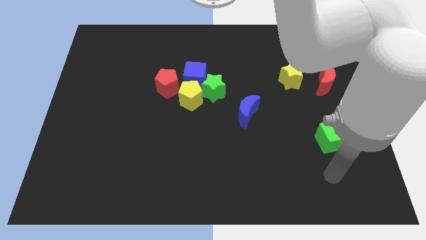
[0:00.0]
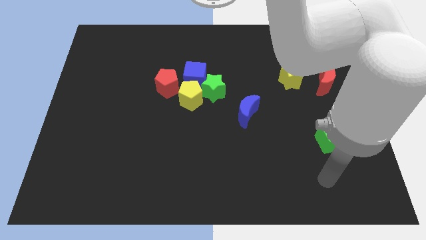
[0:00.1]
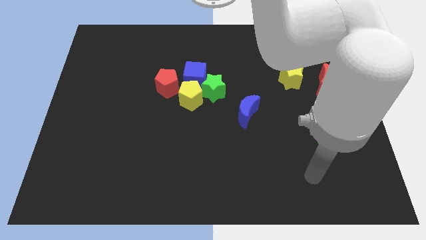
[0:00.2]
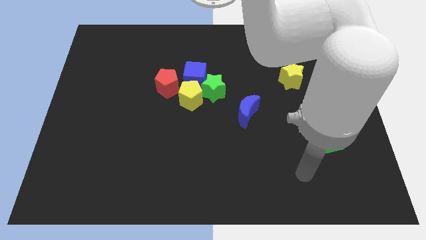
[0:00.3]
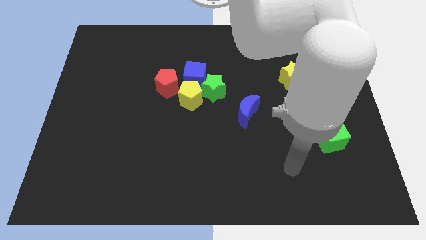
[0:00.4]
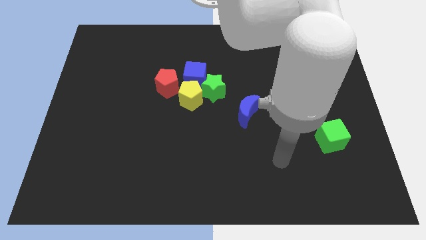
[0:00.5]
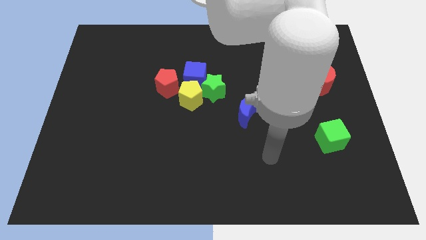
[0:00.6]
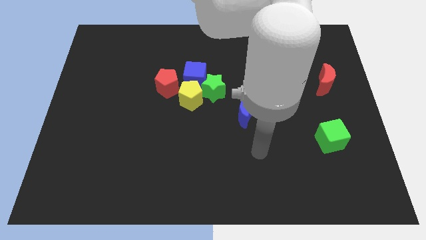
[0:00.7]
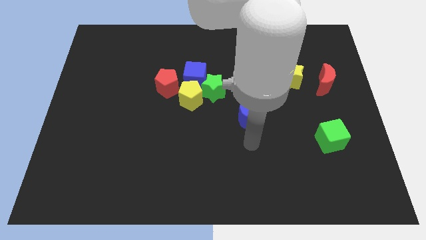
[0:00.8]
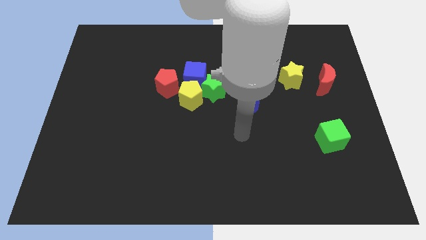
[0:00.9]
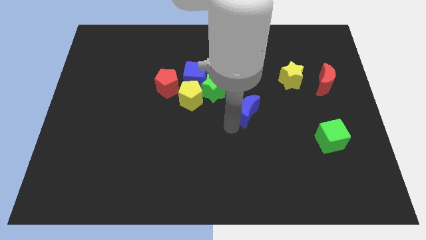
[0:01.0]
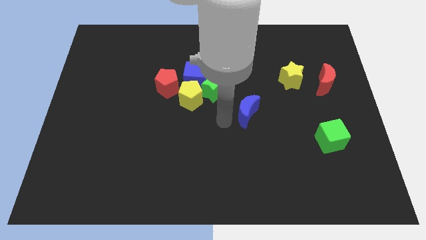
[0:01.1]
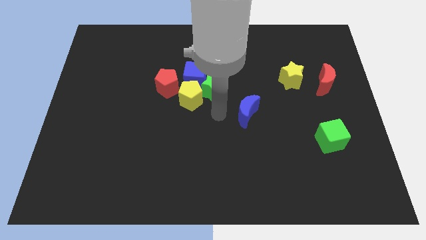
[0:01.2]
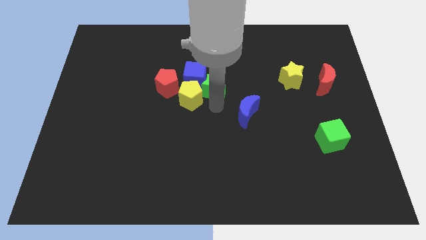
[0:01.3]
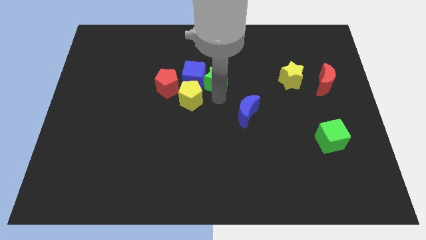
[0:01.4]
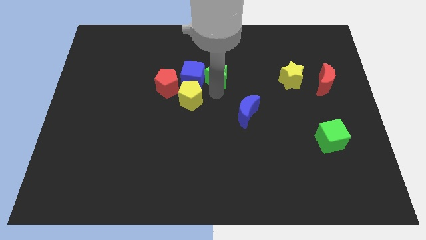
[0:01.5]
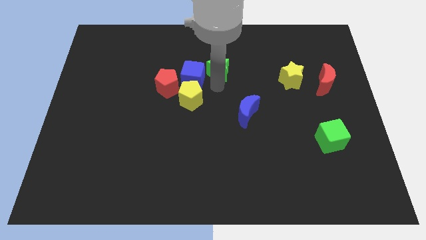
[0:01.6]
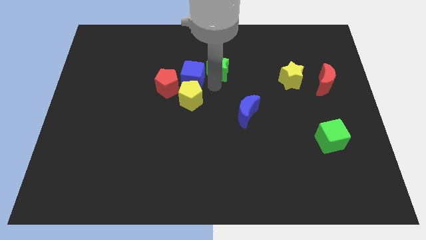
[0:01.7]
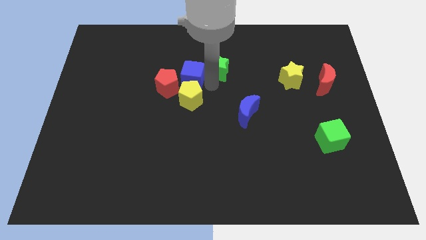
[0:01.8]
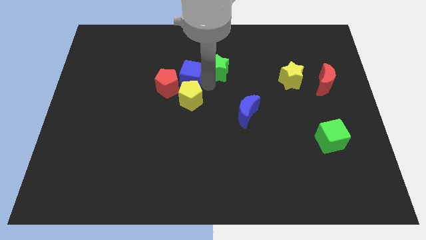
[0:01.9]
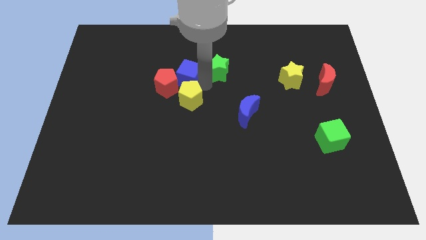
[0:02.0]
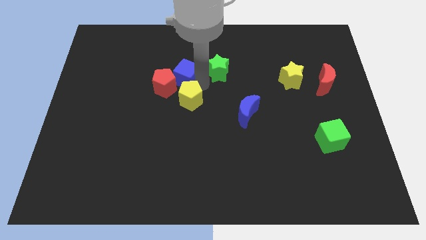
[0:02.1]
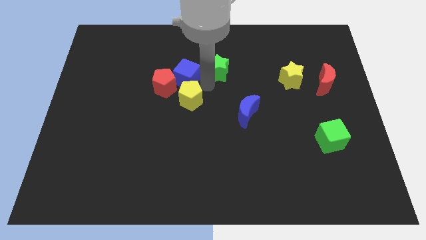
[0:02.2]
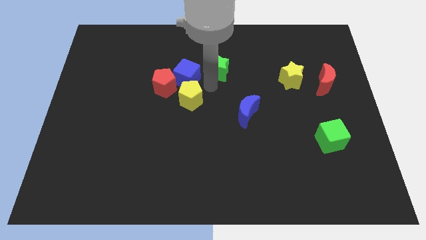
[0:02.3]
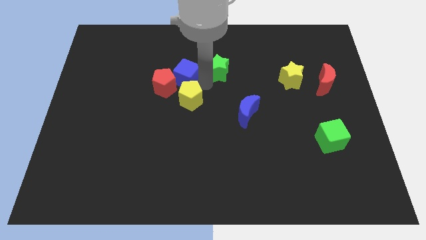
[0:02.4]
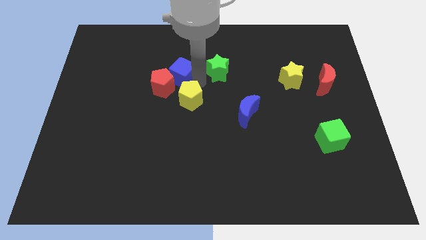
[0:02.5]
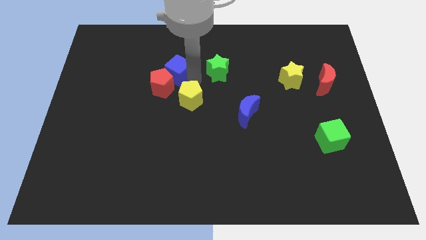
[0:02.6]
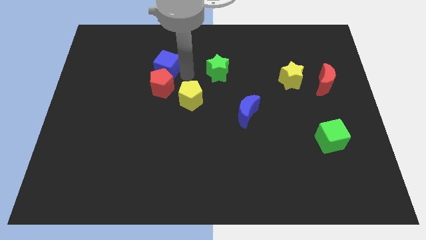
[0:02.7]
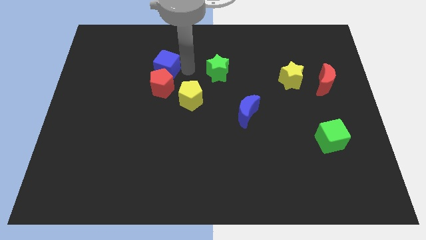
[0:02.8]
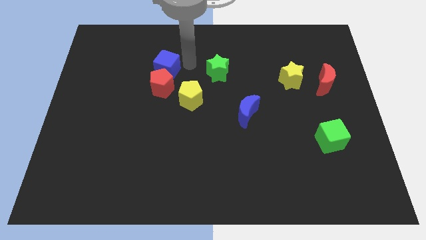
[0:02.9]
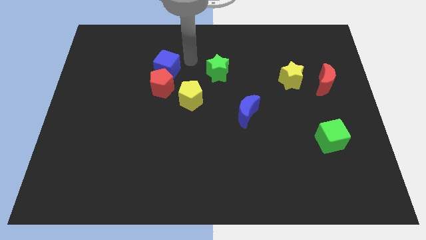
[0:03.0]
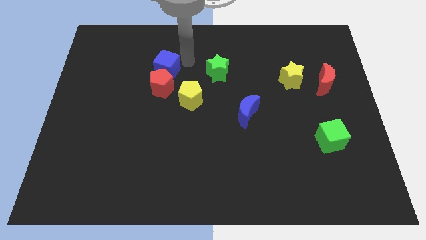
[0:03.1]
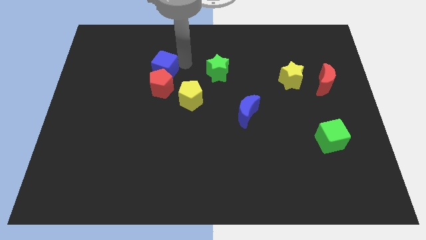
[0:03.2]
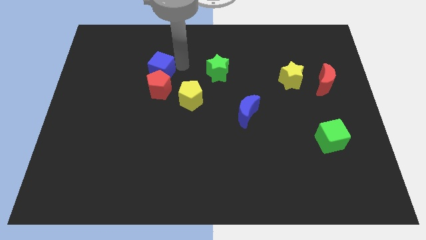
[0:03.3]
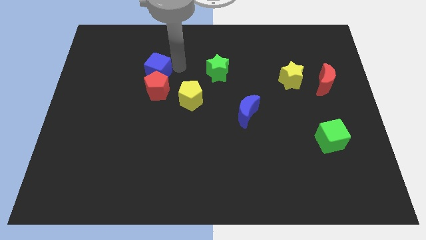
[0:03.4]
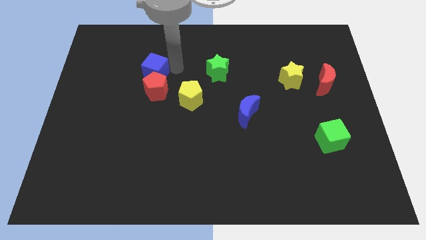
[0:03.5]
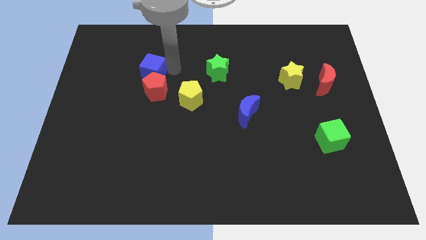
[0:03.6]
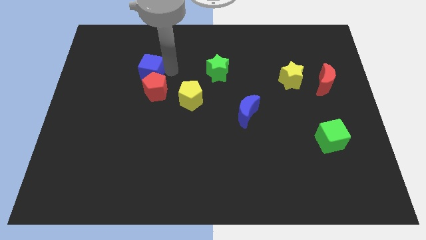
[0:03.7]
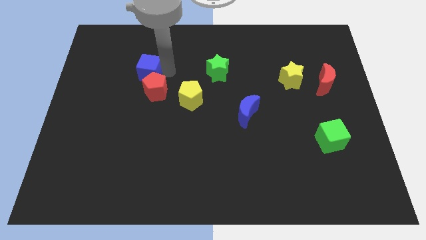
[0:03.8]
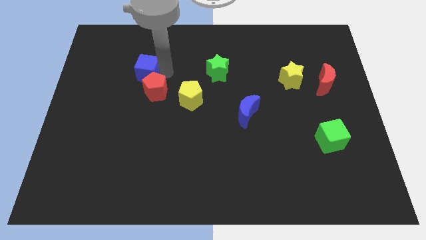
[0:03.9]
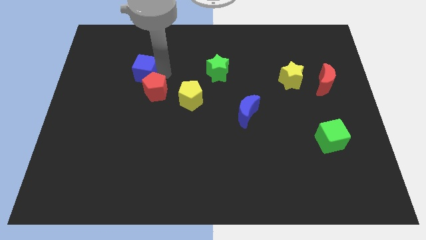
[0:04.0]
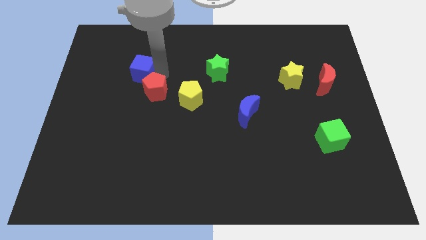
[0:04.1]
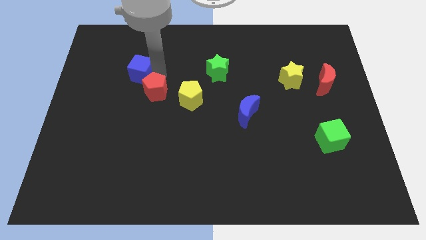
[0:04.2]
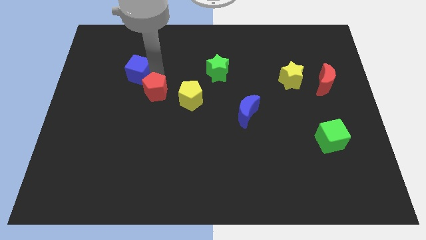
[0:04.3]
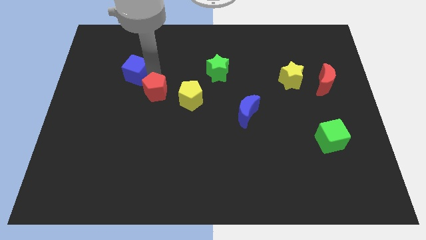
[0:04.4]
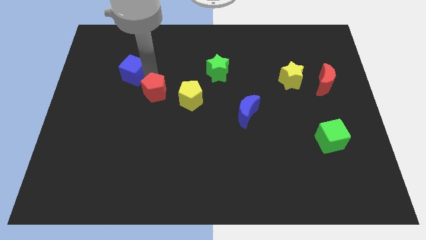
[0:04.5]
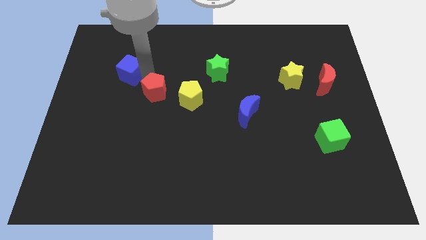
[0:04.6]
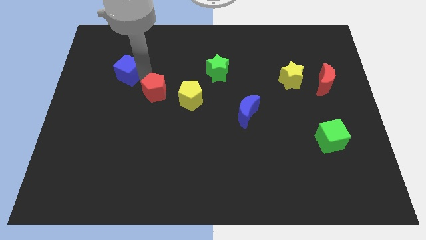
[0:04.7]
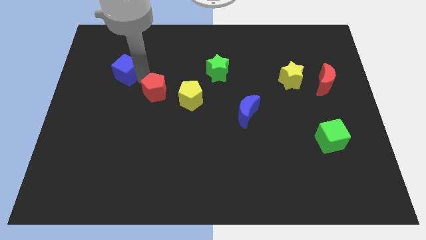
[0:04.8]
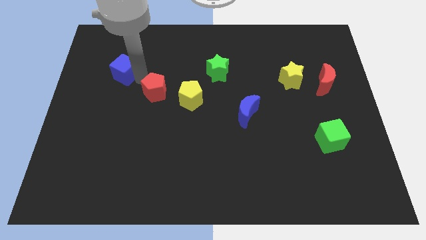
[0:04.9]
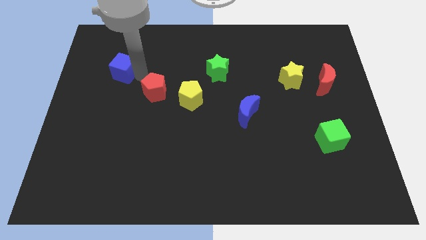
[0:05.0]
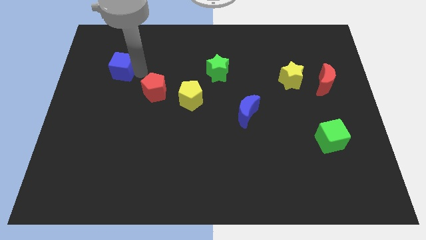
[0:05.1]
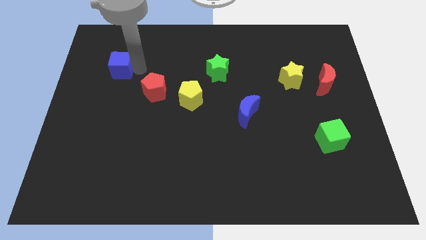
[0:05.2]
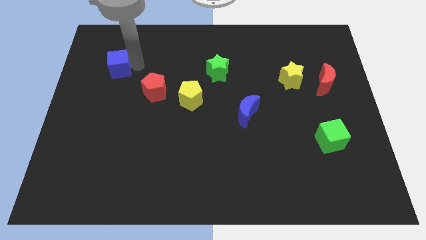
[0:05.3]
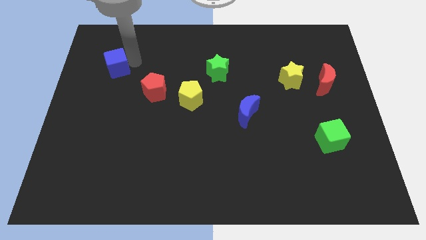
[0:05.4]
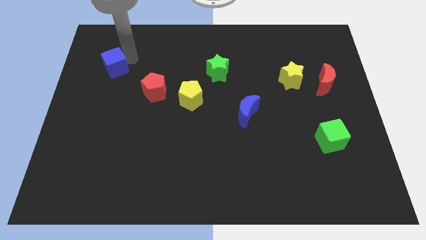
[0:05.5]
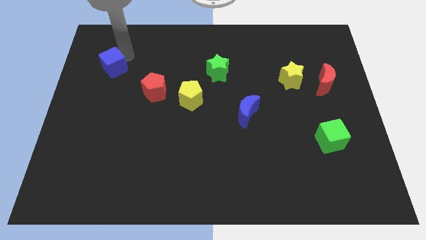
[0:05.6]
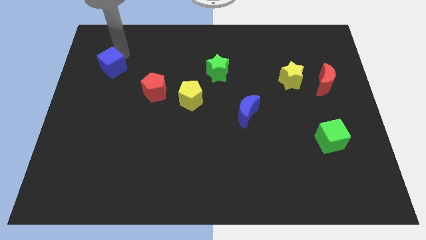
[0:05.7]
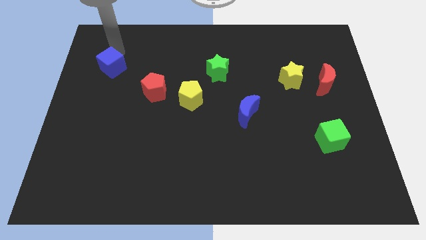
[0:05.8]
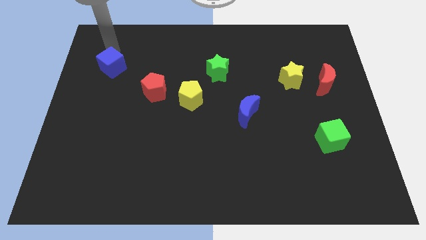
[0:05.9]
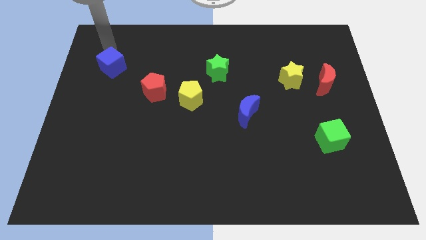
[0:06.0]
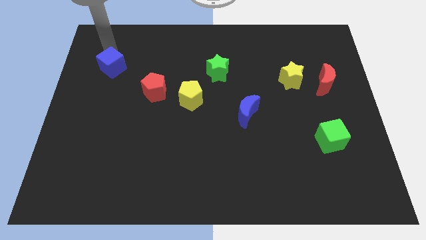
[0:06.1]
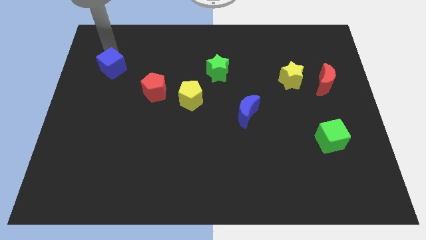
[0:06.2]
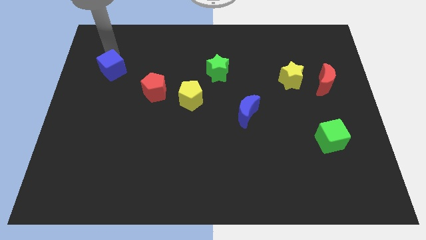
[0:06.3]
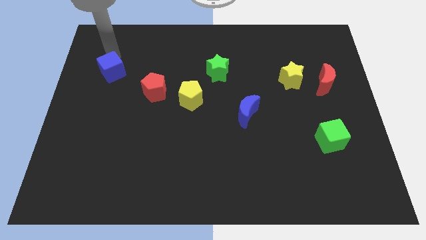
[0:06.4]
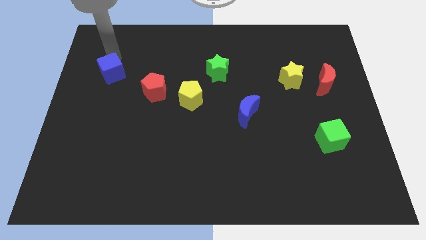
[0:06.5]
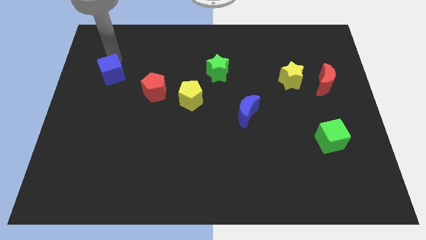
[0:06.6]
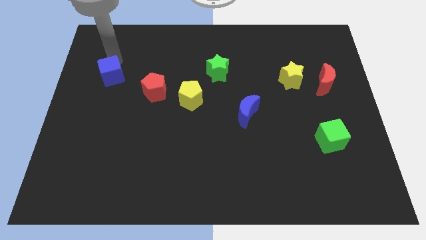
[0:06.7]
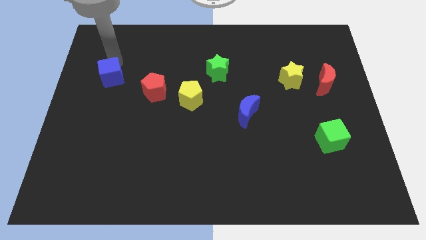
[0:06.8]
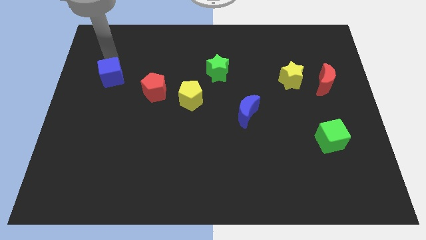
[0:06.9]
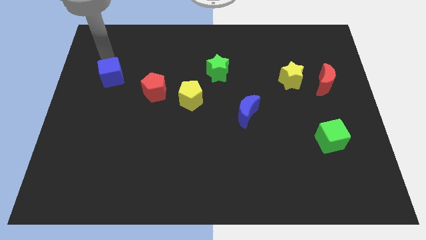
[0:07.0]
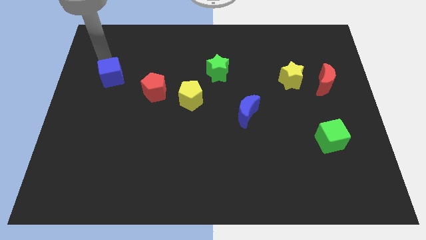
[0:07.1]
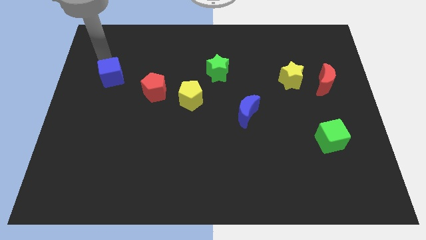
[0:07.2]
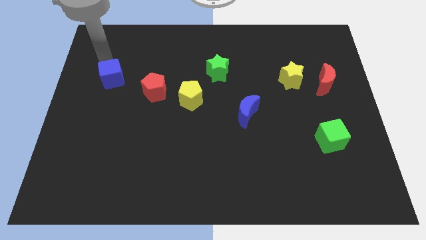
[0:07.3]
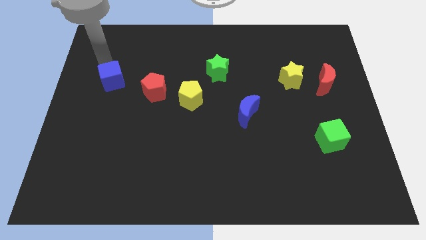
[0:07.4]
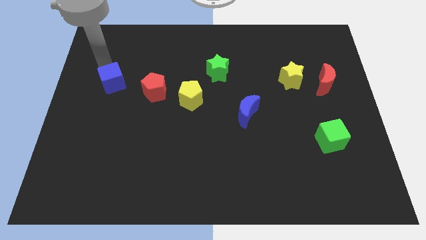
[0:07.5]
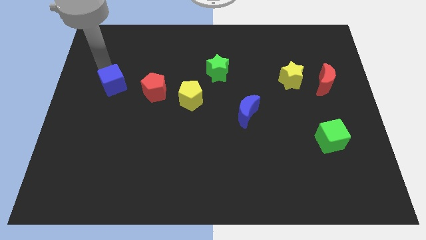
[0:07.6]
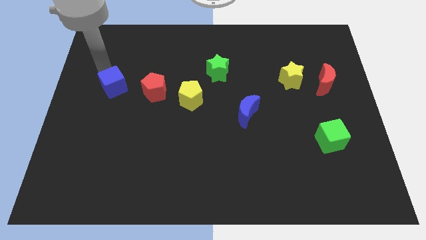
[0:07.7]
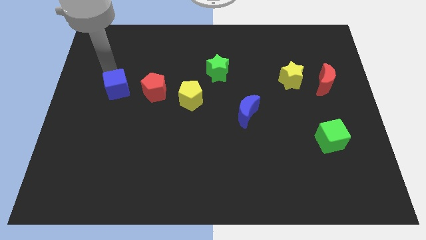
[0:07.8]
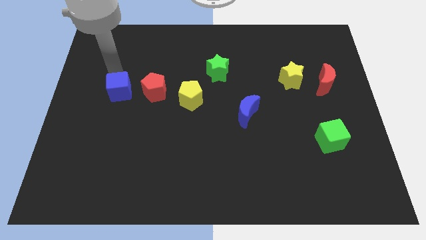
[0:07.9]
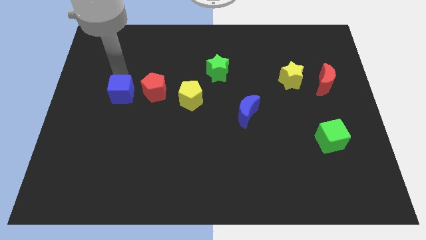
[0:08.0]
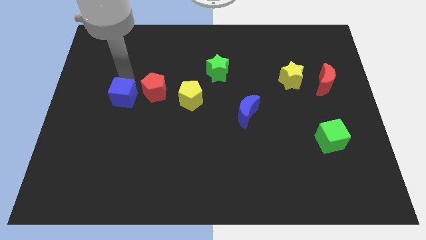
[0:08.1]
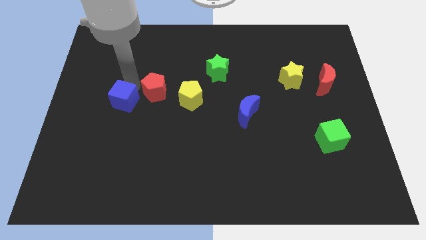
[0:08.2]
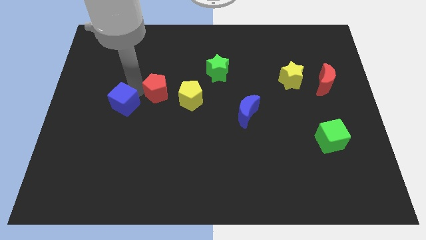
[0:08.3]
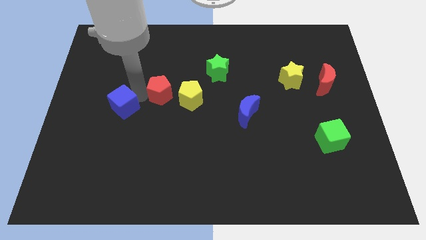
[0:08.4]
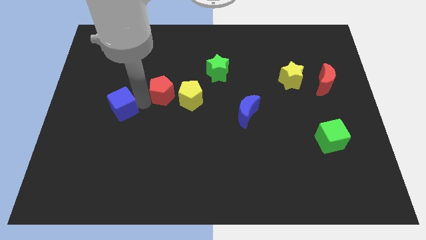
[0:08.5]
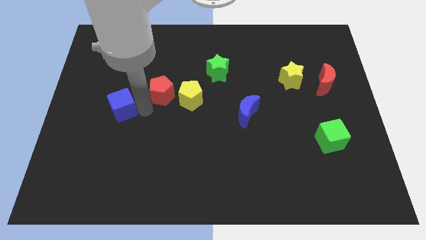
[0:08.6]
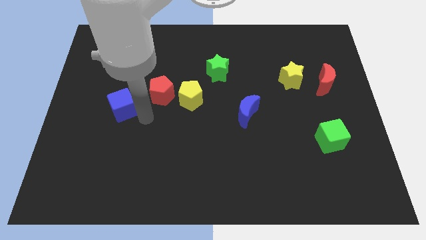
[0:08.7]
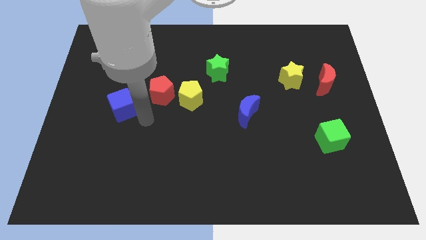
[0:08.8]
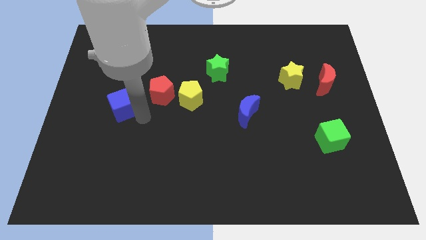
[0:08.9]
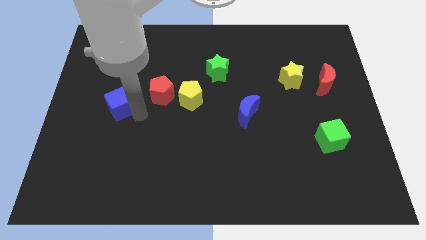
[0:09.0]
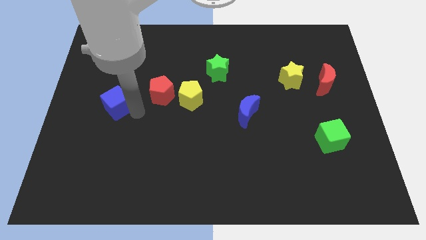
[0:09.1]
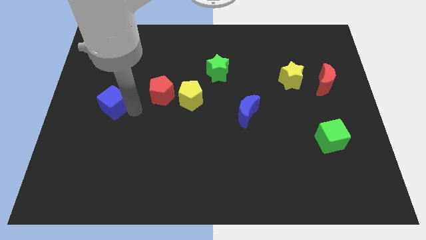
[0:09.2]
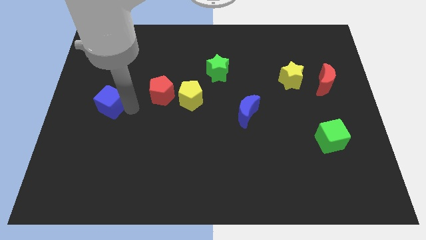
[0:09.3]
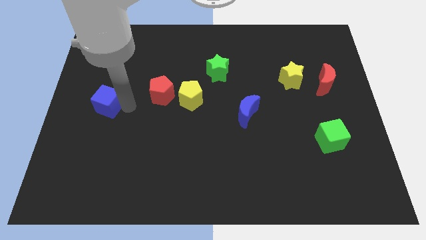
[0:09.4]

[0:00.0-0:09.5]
slide the blue cube to the center left
